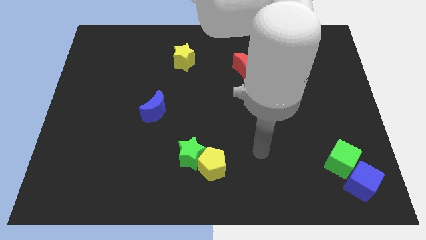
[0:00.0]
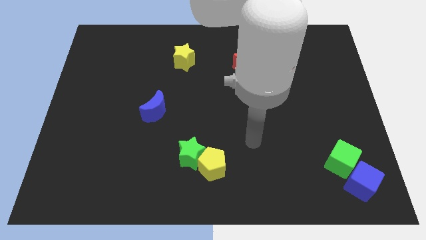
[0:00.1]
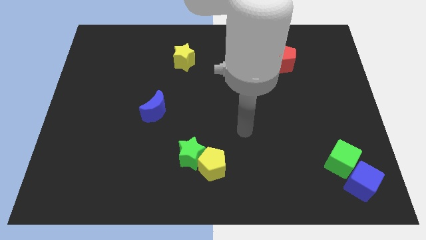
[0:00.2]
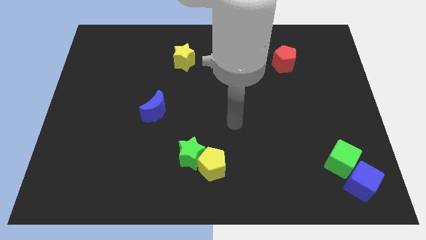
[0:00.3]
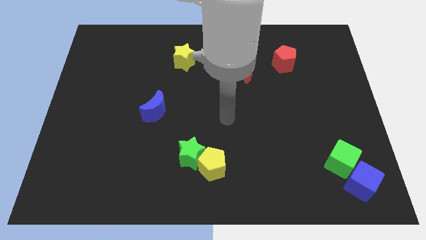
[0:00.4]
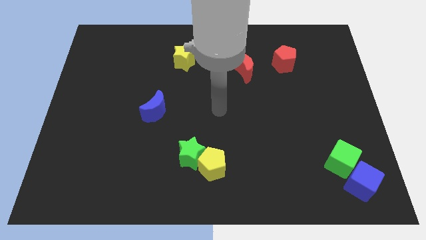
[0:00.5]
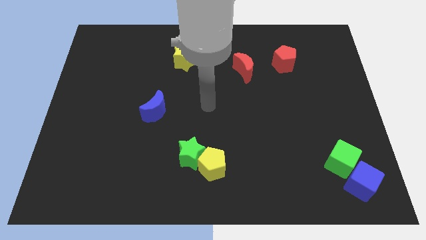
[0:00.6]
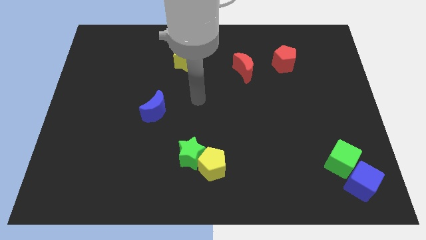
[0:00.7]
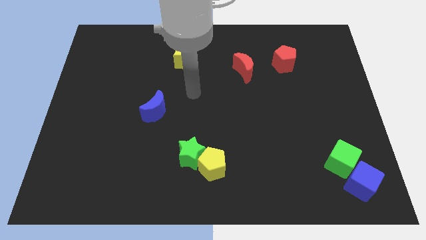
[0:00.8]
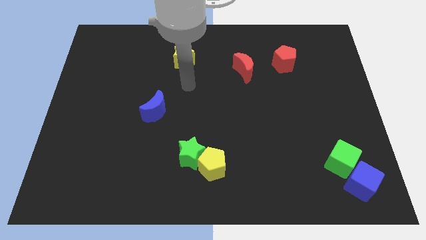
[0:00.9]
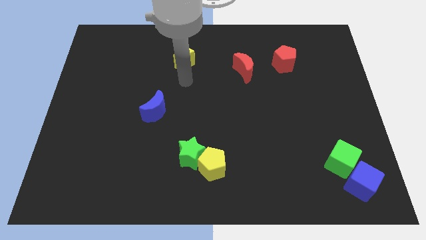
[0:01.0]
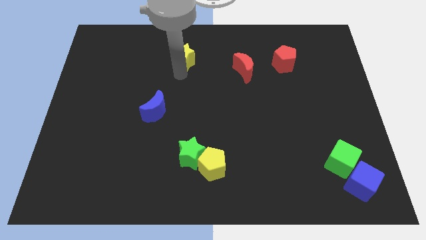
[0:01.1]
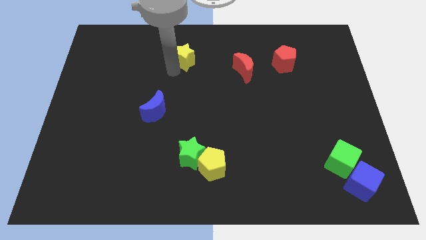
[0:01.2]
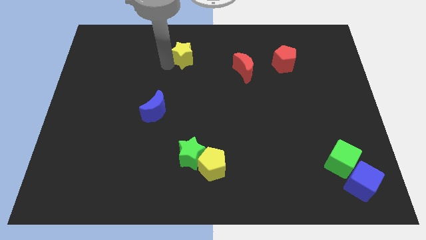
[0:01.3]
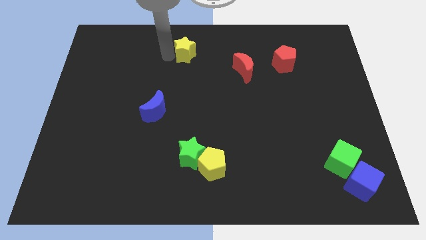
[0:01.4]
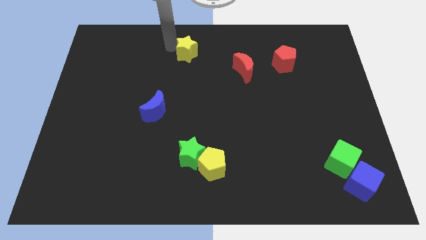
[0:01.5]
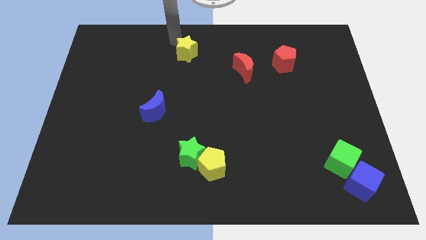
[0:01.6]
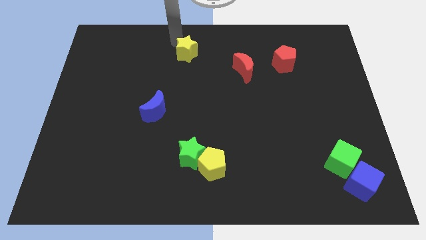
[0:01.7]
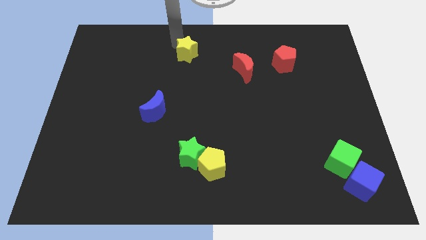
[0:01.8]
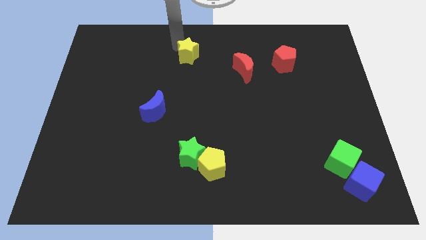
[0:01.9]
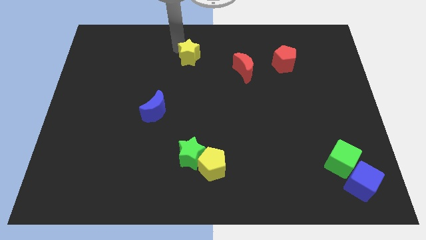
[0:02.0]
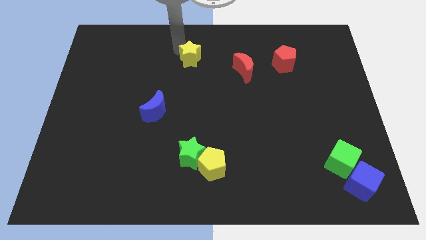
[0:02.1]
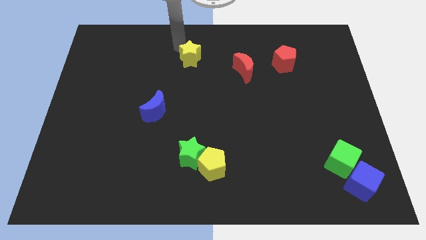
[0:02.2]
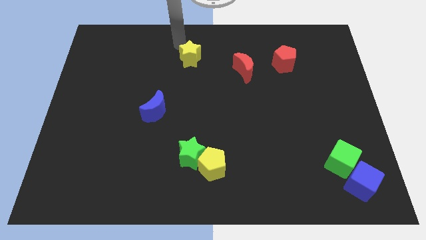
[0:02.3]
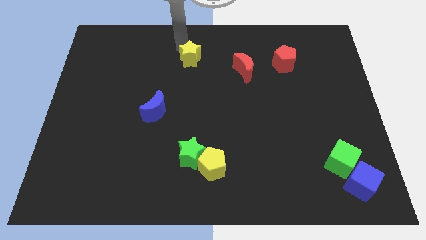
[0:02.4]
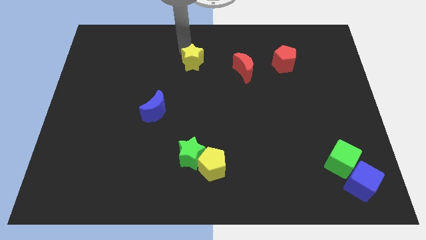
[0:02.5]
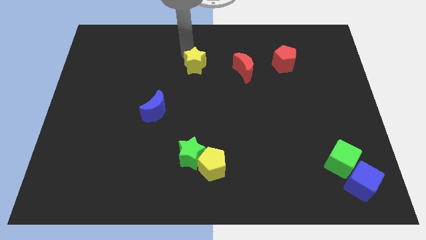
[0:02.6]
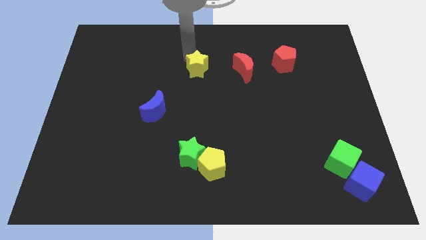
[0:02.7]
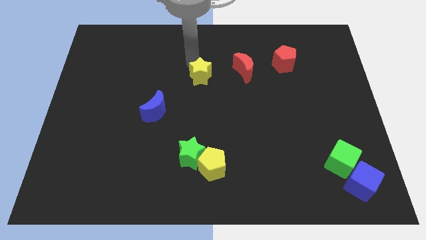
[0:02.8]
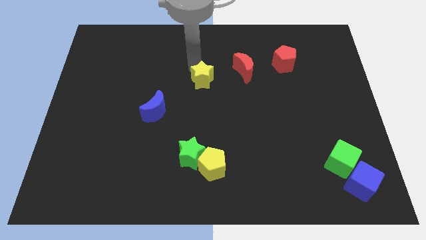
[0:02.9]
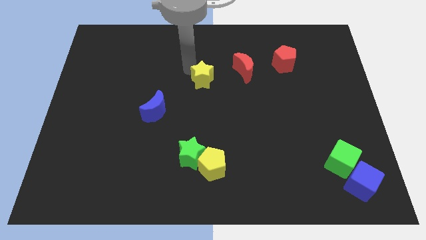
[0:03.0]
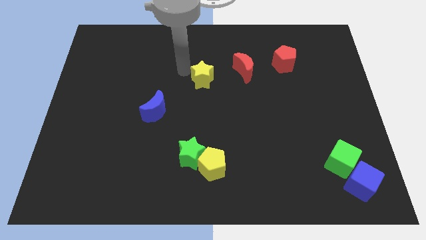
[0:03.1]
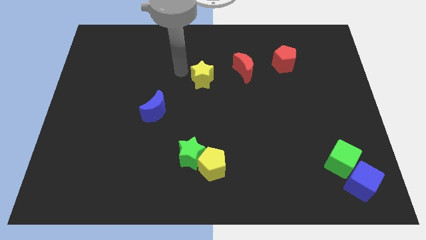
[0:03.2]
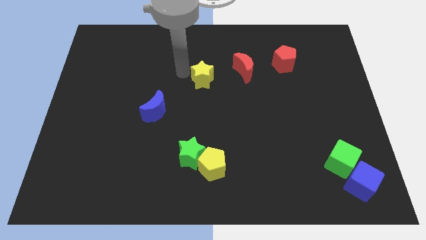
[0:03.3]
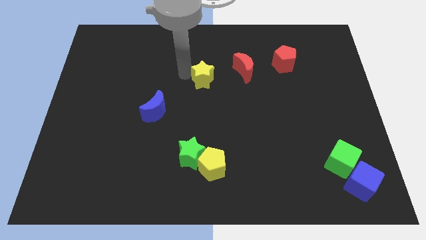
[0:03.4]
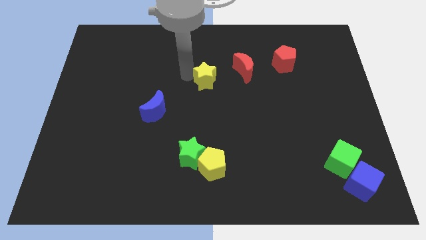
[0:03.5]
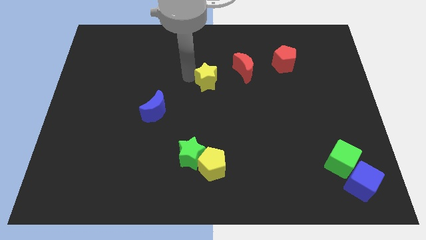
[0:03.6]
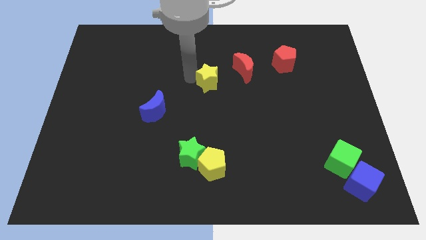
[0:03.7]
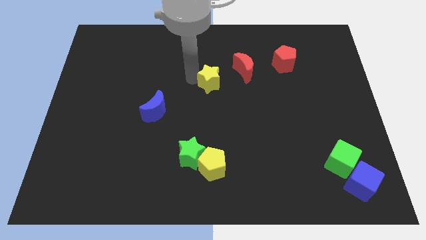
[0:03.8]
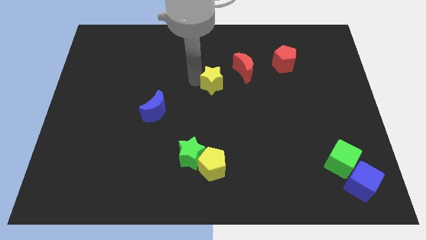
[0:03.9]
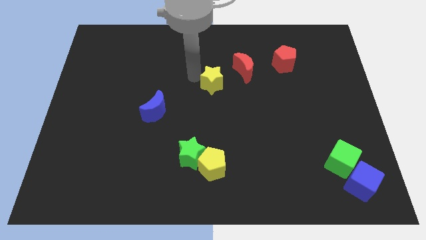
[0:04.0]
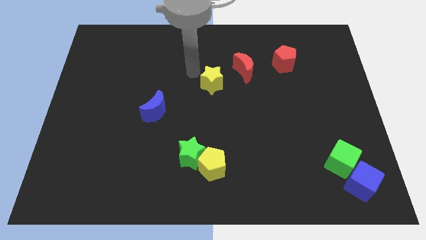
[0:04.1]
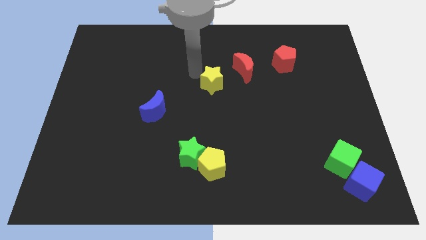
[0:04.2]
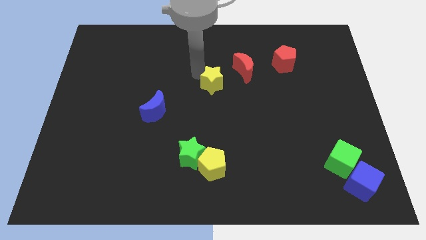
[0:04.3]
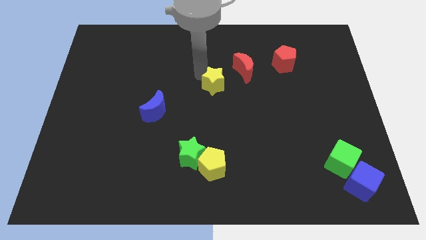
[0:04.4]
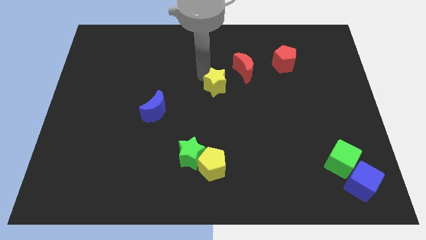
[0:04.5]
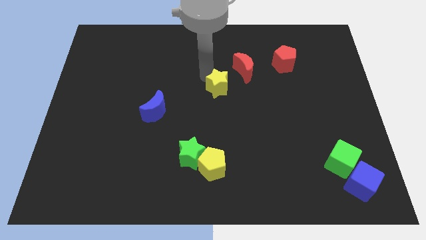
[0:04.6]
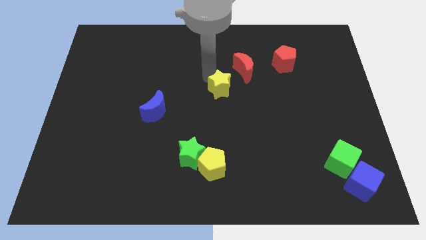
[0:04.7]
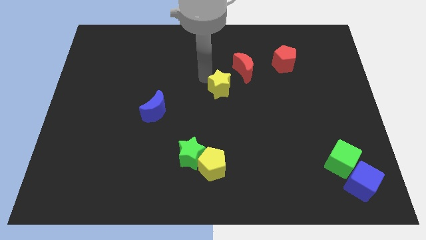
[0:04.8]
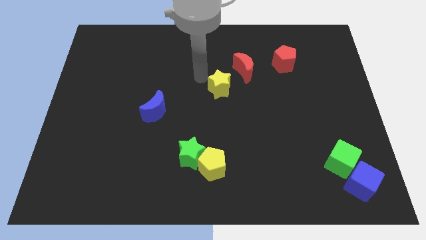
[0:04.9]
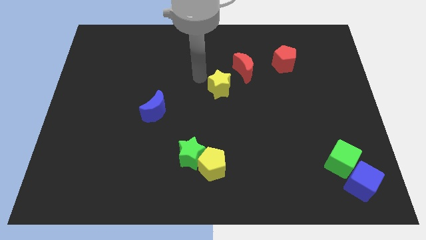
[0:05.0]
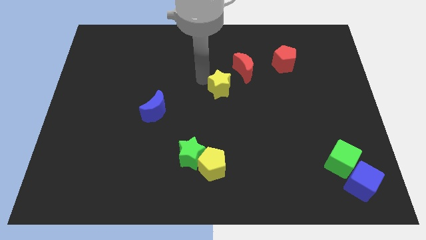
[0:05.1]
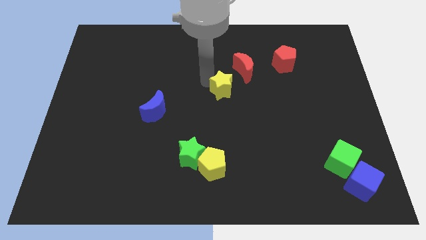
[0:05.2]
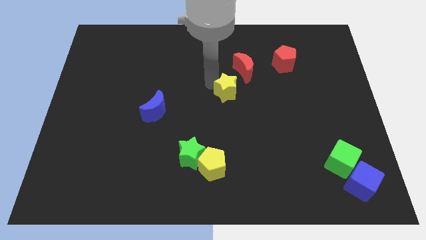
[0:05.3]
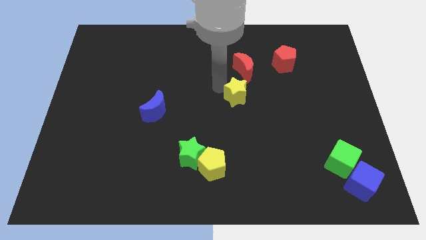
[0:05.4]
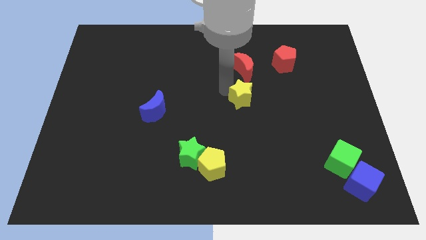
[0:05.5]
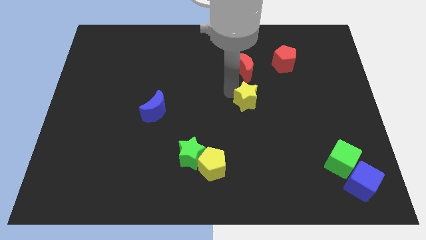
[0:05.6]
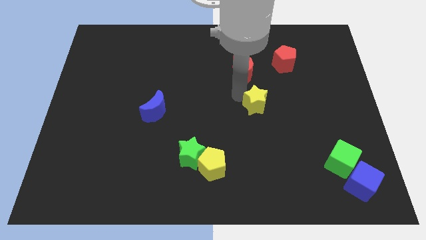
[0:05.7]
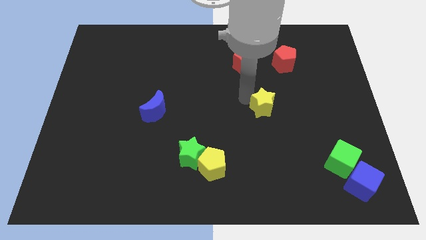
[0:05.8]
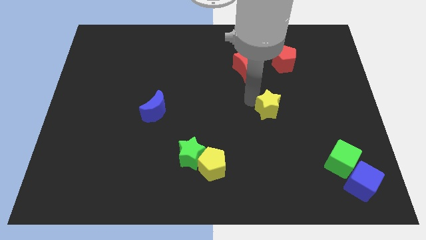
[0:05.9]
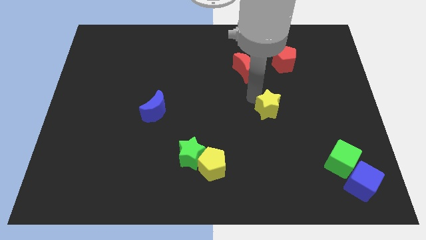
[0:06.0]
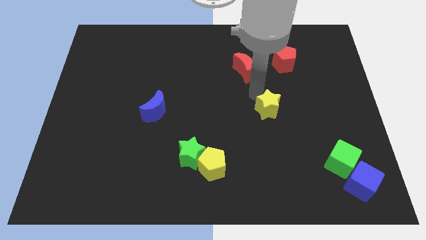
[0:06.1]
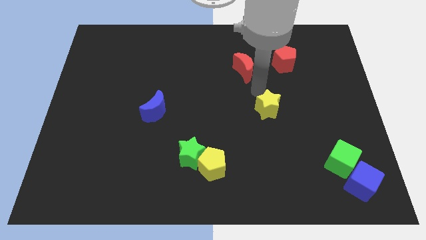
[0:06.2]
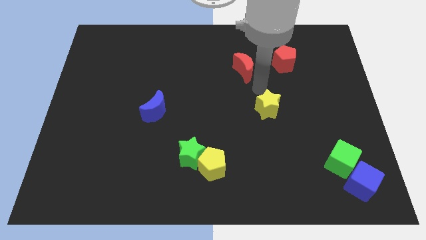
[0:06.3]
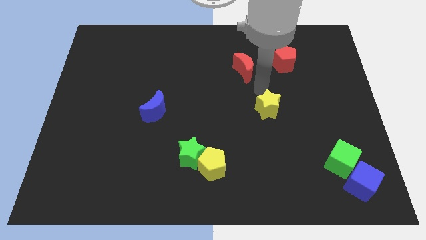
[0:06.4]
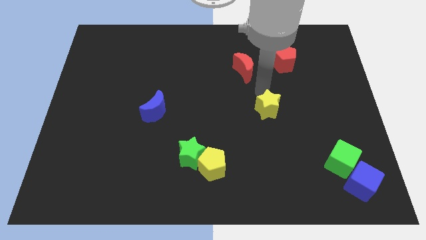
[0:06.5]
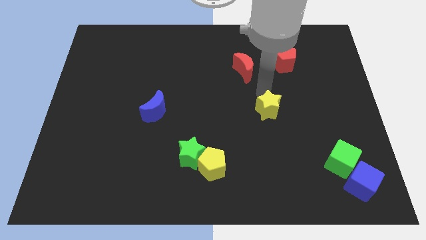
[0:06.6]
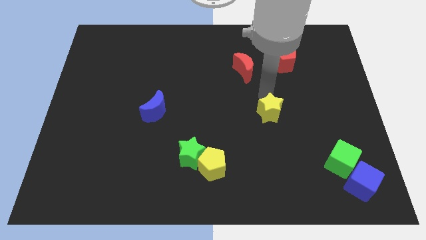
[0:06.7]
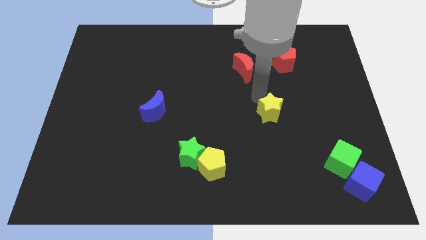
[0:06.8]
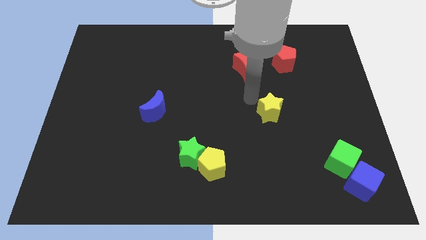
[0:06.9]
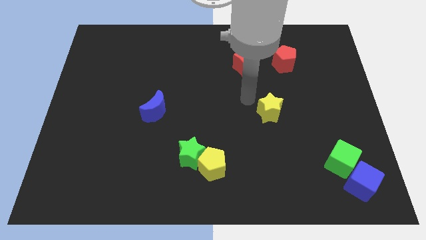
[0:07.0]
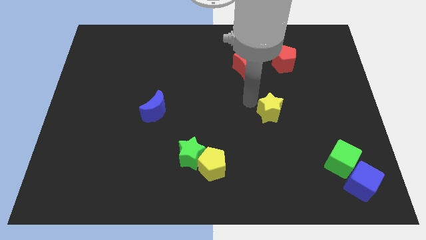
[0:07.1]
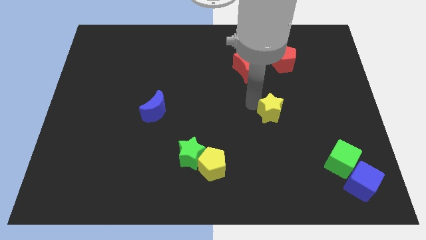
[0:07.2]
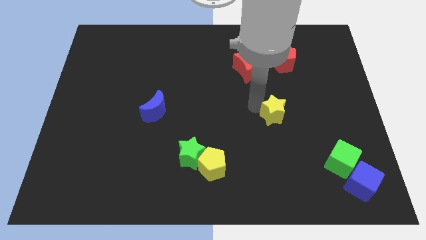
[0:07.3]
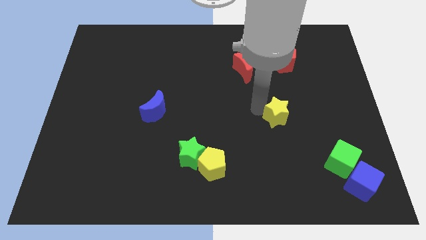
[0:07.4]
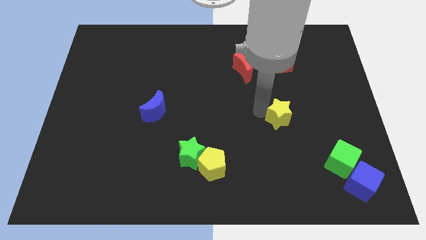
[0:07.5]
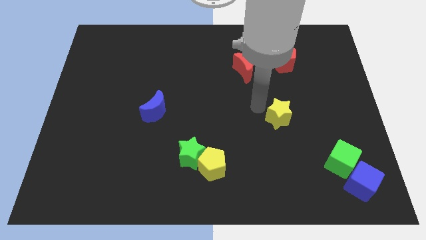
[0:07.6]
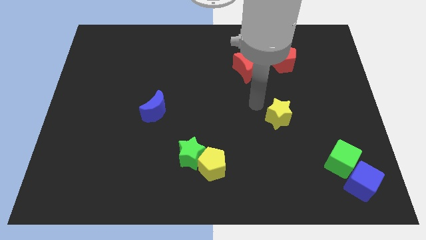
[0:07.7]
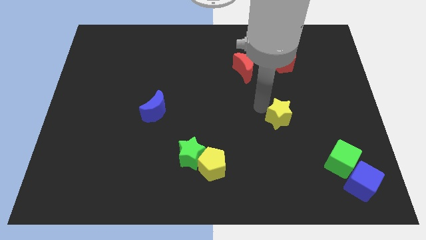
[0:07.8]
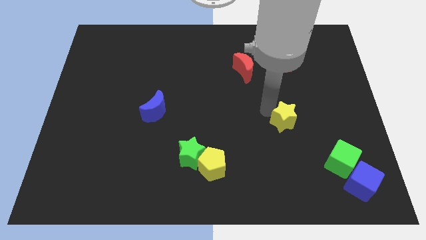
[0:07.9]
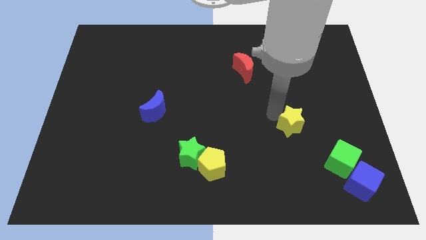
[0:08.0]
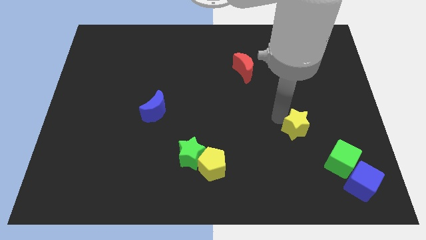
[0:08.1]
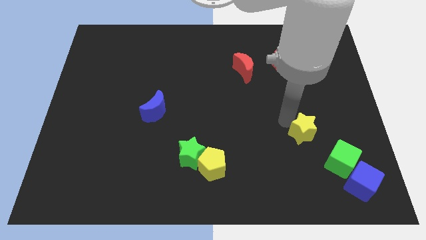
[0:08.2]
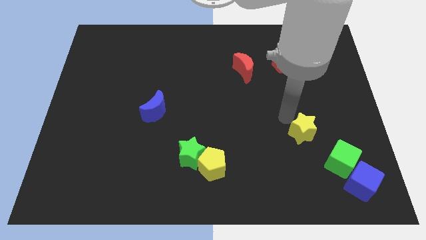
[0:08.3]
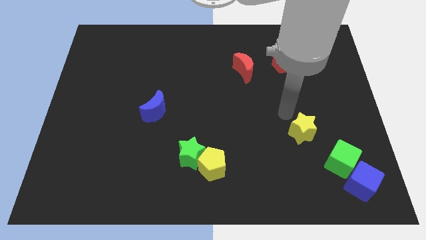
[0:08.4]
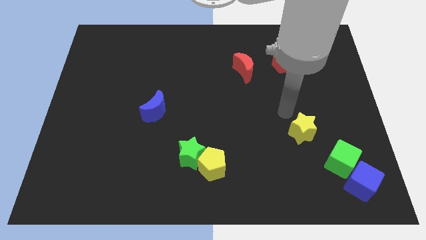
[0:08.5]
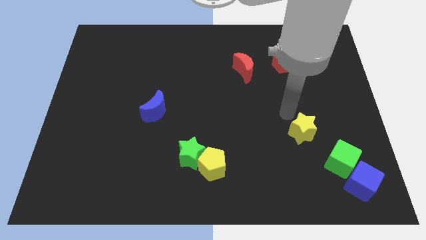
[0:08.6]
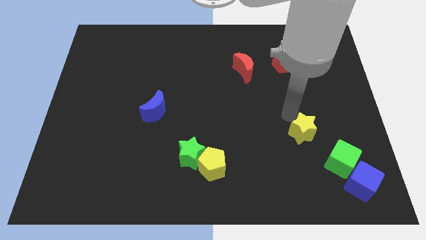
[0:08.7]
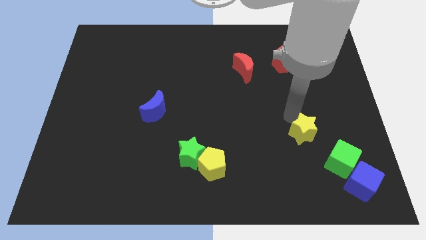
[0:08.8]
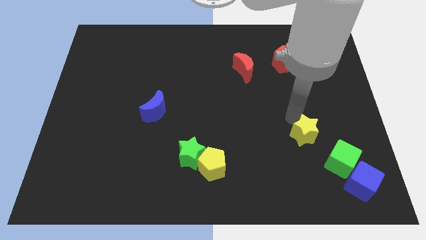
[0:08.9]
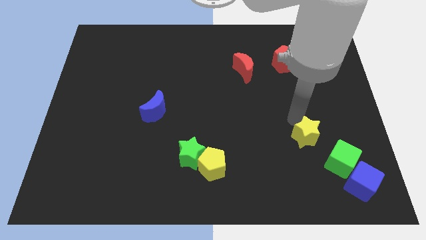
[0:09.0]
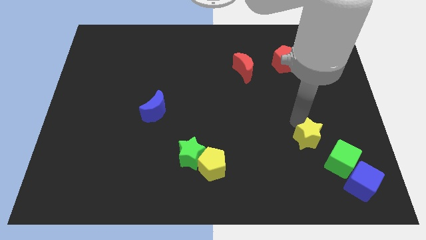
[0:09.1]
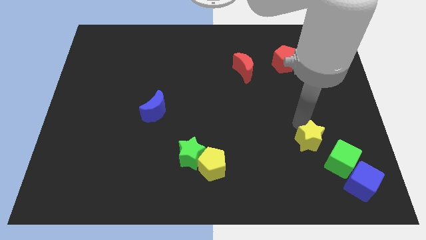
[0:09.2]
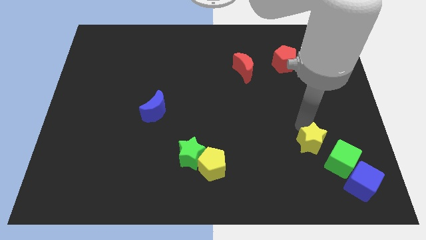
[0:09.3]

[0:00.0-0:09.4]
slide the yellow star to the top left side of the blue cube
